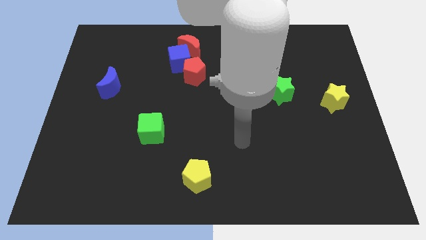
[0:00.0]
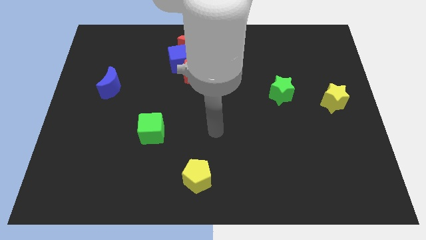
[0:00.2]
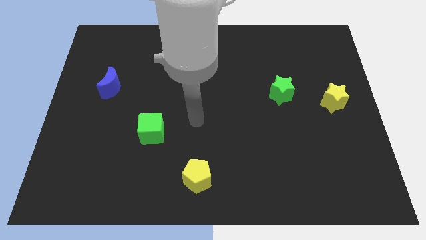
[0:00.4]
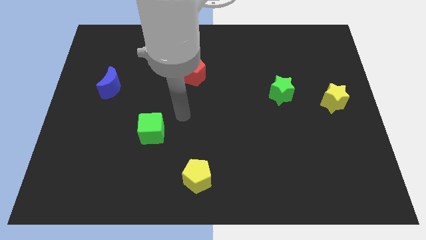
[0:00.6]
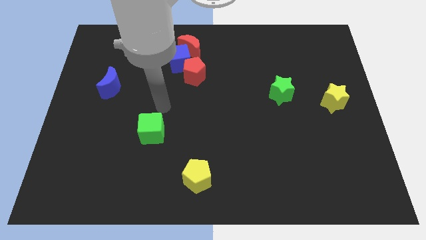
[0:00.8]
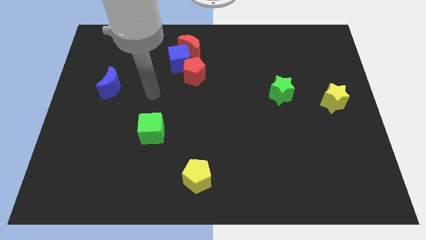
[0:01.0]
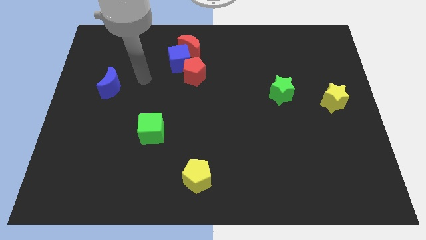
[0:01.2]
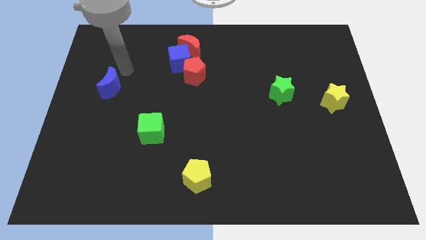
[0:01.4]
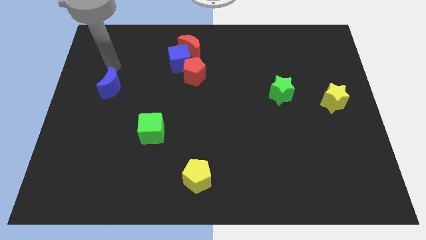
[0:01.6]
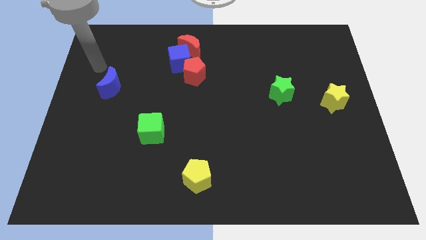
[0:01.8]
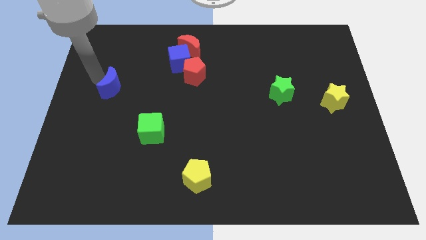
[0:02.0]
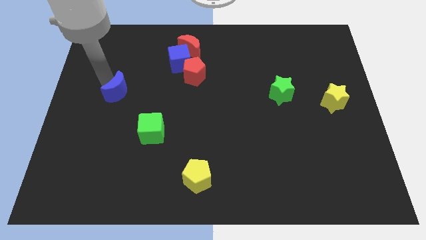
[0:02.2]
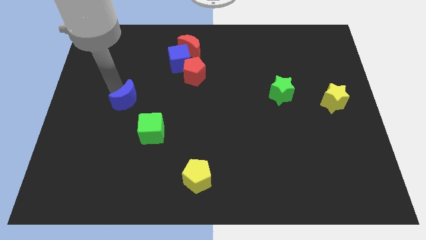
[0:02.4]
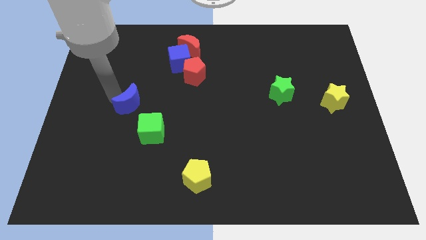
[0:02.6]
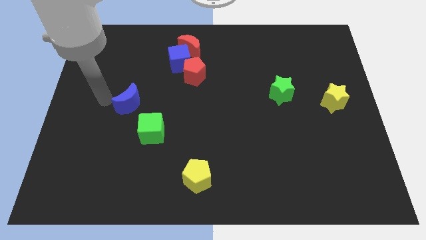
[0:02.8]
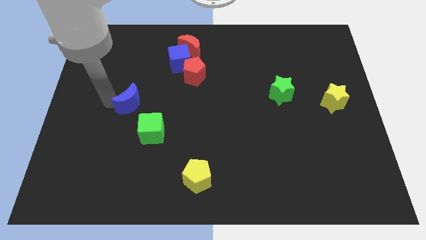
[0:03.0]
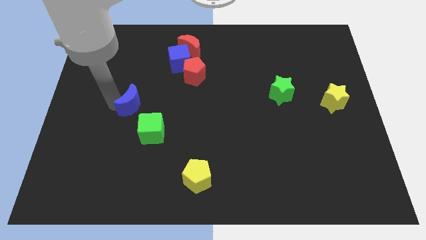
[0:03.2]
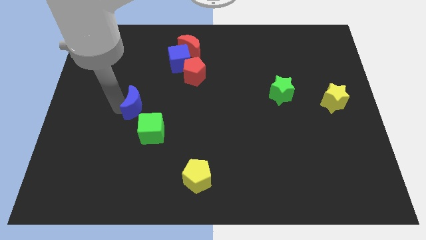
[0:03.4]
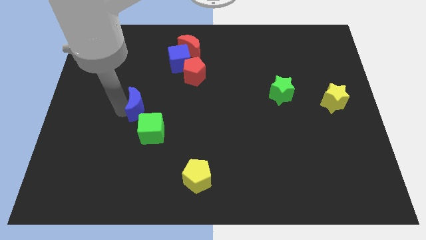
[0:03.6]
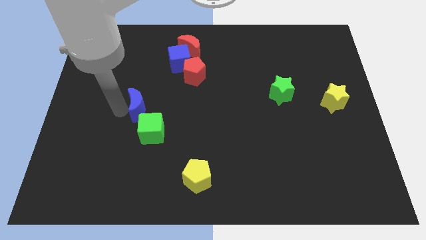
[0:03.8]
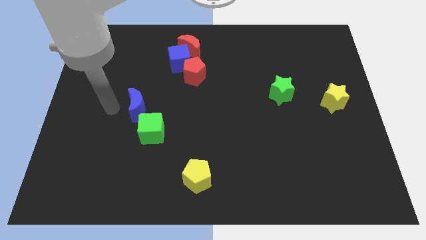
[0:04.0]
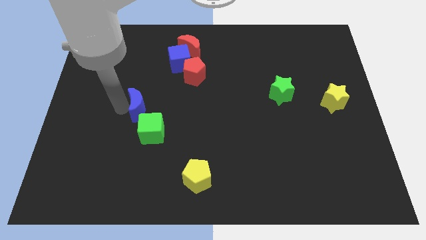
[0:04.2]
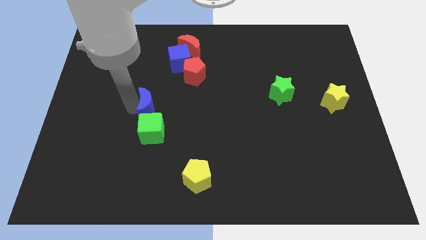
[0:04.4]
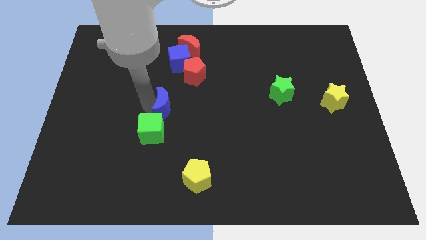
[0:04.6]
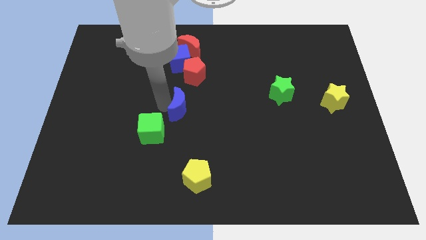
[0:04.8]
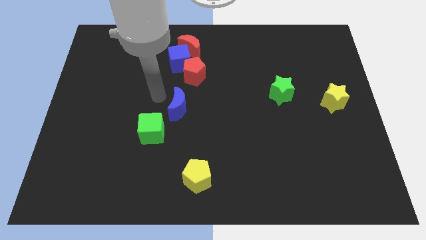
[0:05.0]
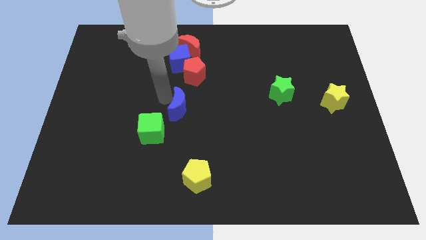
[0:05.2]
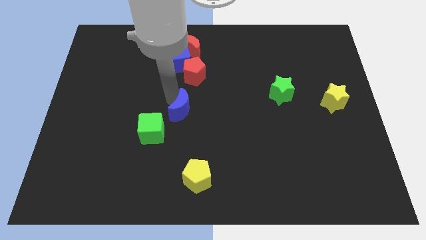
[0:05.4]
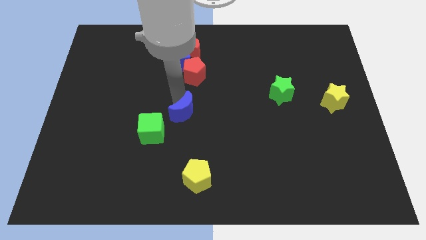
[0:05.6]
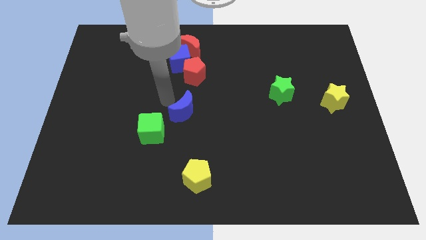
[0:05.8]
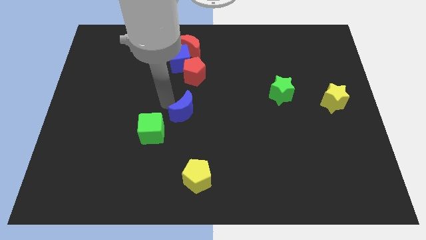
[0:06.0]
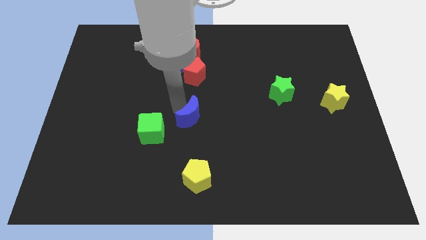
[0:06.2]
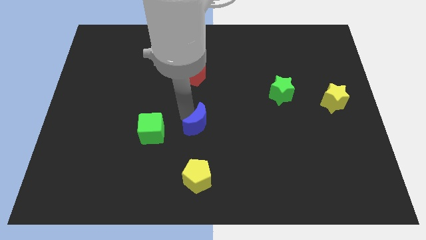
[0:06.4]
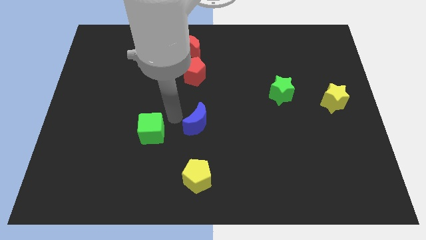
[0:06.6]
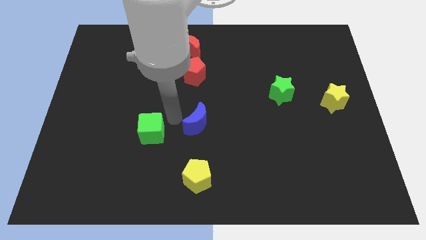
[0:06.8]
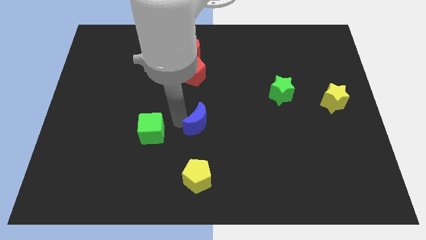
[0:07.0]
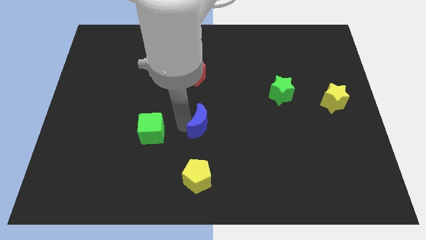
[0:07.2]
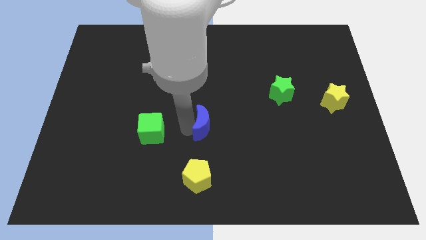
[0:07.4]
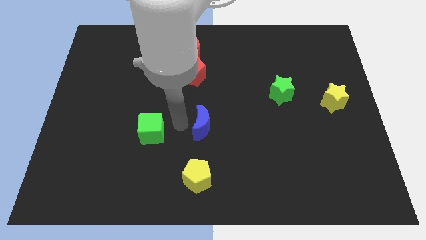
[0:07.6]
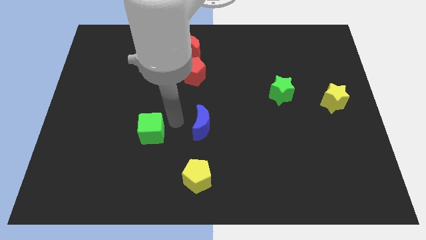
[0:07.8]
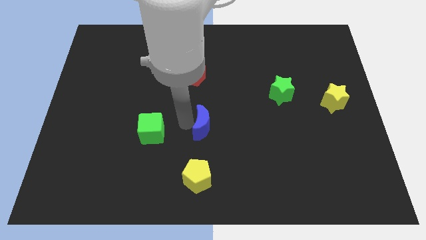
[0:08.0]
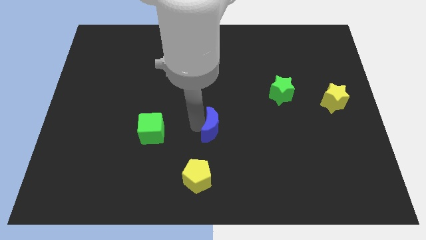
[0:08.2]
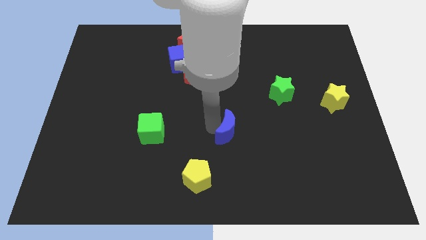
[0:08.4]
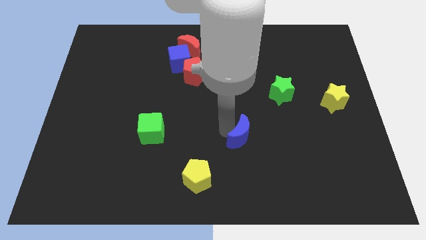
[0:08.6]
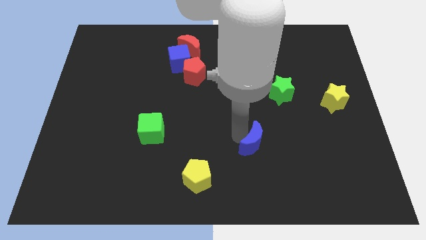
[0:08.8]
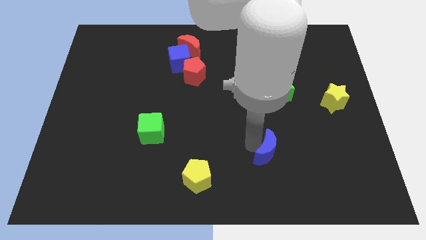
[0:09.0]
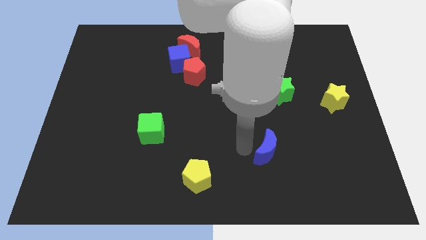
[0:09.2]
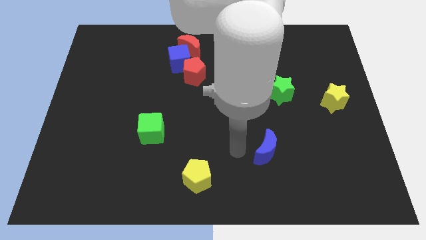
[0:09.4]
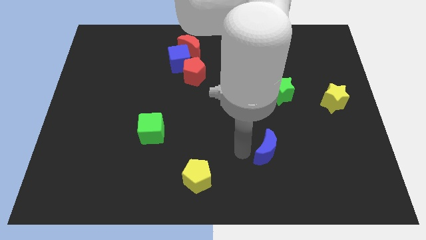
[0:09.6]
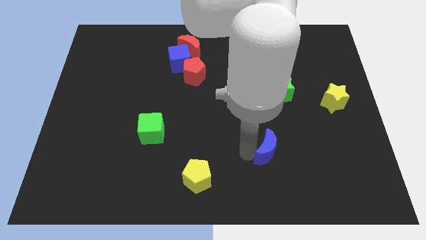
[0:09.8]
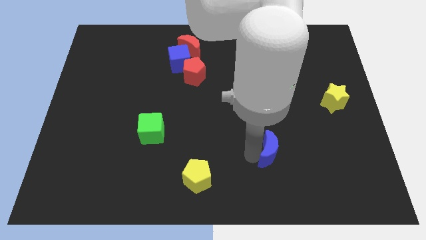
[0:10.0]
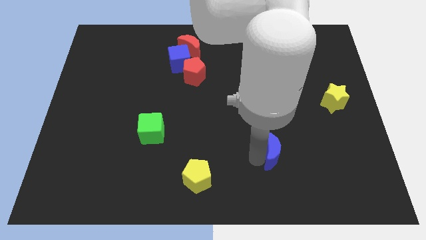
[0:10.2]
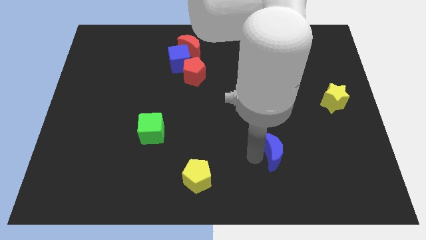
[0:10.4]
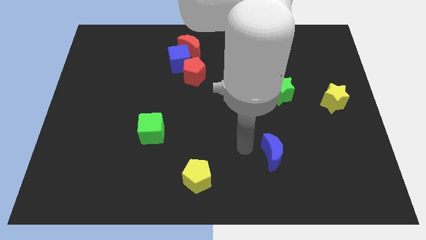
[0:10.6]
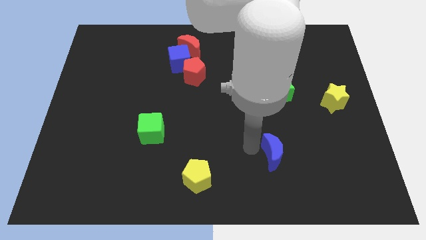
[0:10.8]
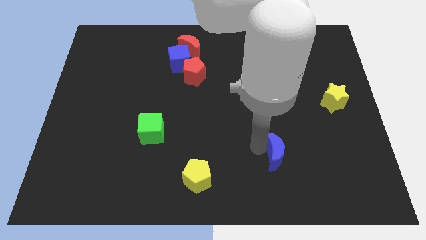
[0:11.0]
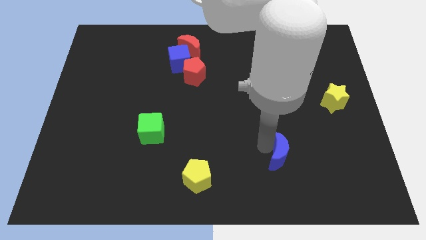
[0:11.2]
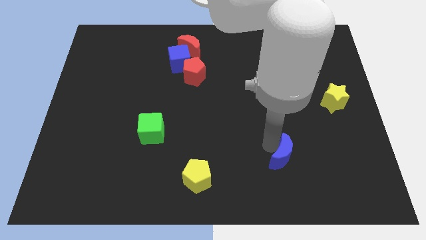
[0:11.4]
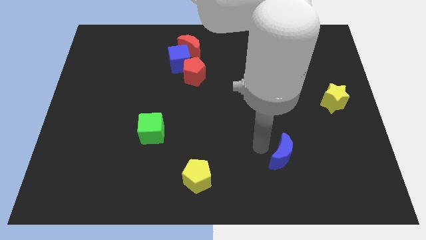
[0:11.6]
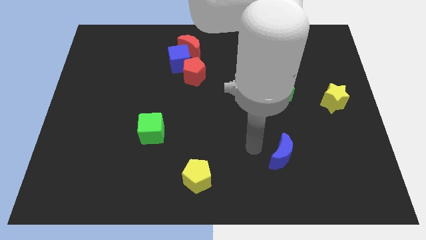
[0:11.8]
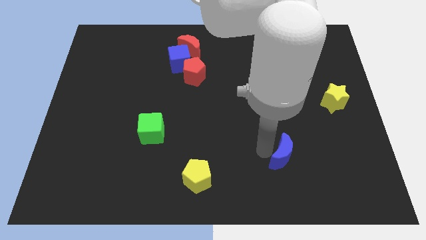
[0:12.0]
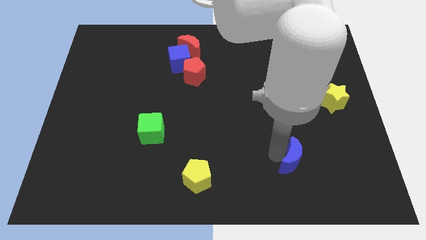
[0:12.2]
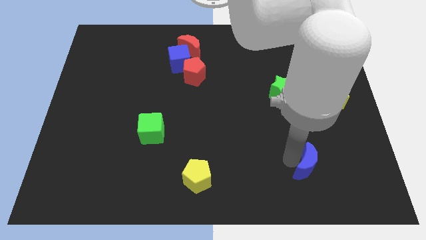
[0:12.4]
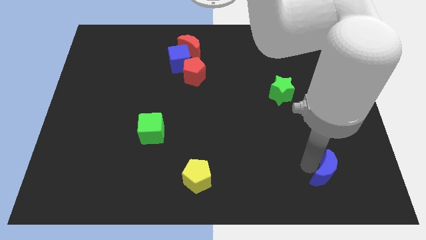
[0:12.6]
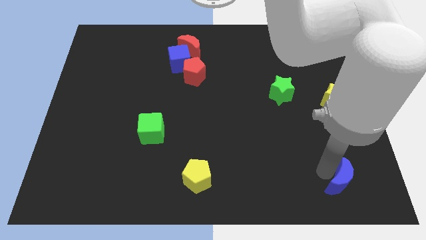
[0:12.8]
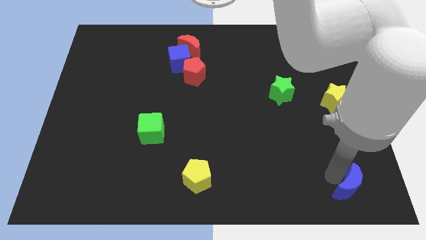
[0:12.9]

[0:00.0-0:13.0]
push the blue moon to the bottom right corner
